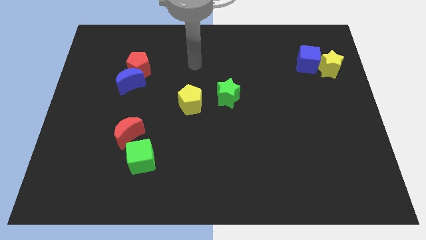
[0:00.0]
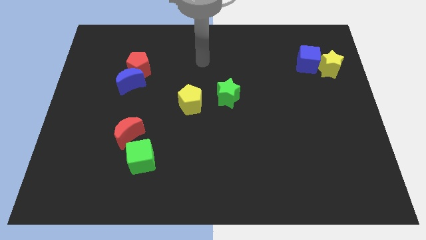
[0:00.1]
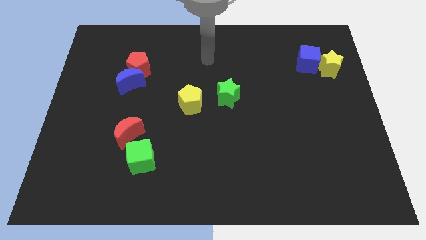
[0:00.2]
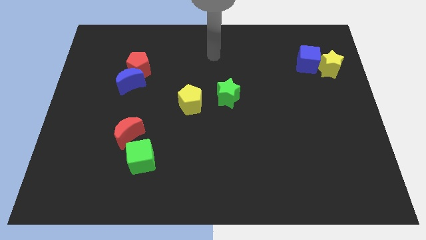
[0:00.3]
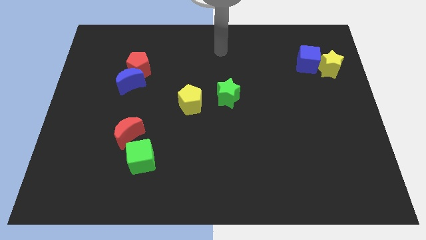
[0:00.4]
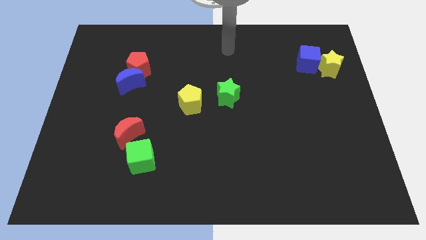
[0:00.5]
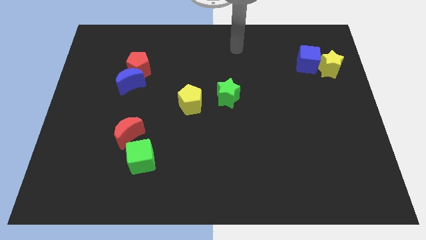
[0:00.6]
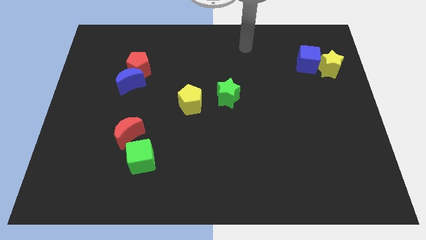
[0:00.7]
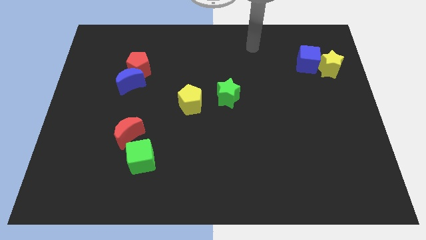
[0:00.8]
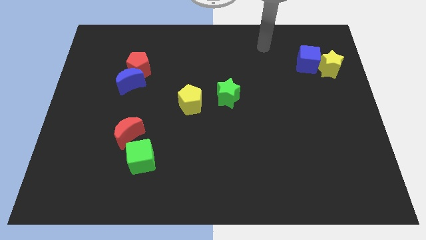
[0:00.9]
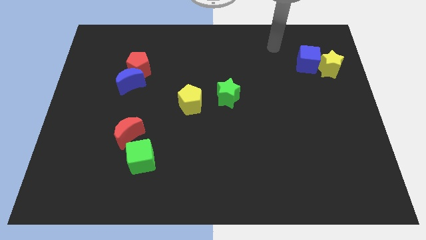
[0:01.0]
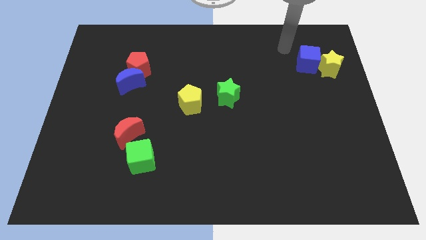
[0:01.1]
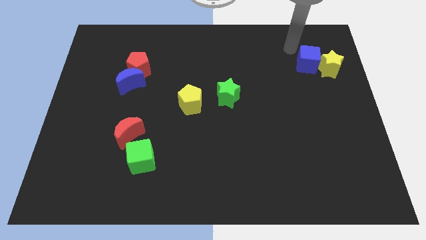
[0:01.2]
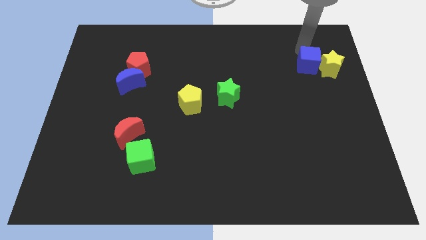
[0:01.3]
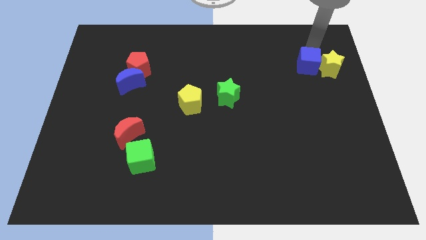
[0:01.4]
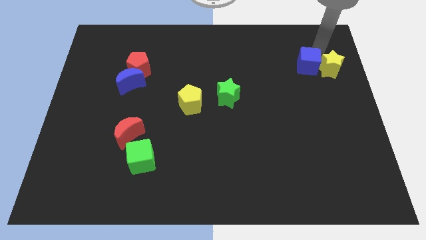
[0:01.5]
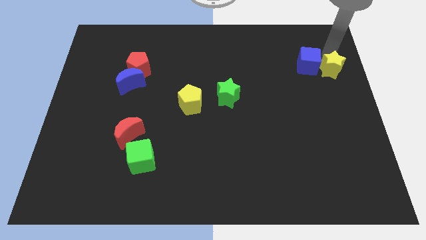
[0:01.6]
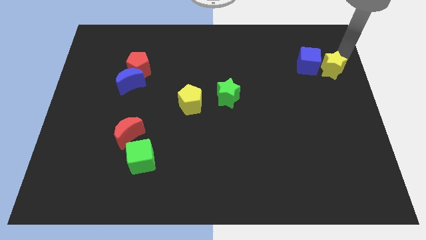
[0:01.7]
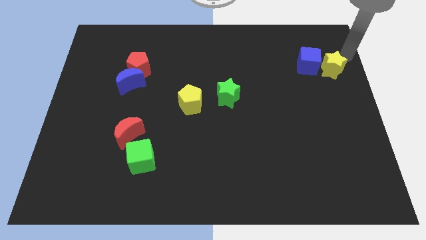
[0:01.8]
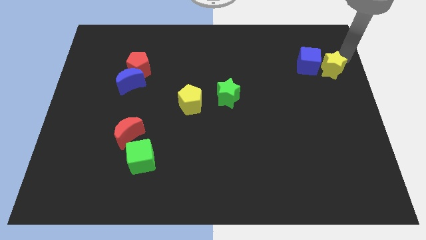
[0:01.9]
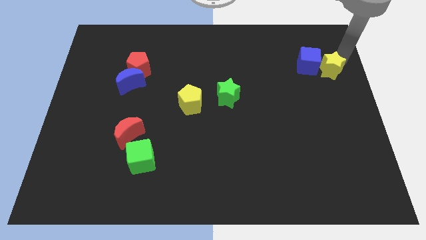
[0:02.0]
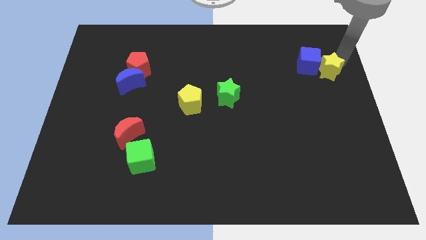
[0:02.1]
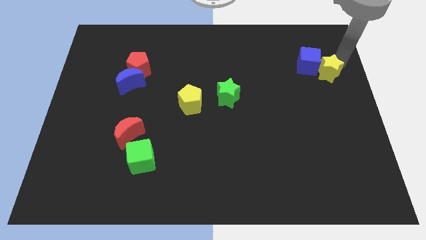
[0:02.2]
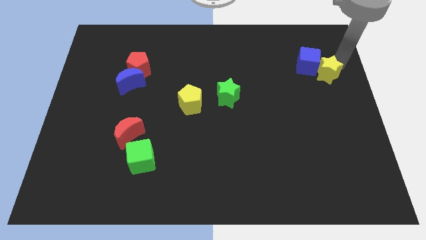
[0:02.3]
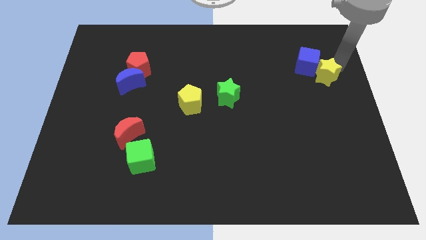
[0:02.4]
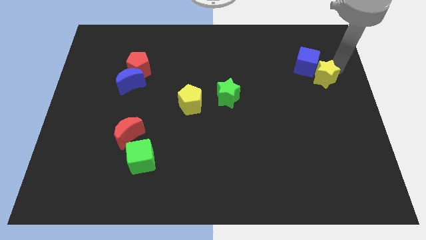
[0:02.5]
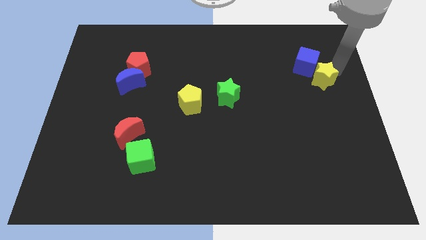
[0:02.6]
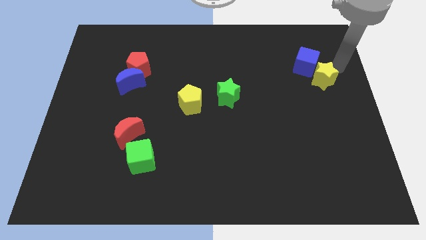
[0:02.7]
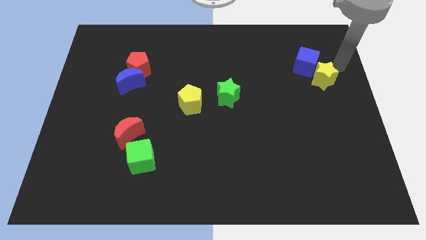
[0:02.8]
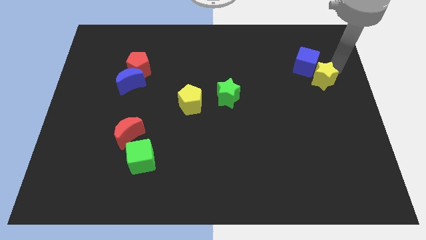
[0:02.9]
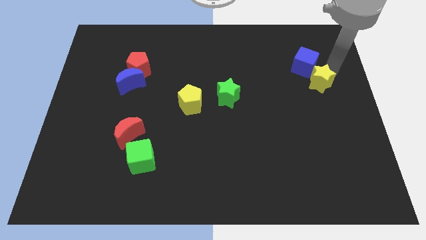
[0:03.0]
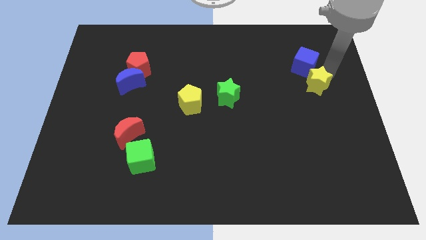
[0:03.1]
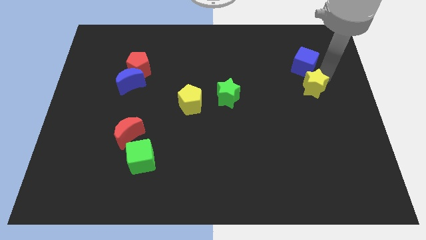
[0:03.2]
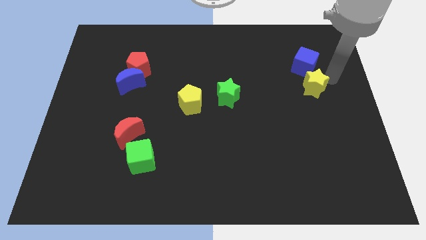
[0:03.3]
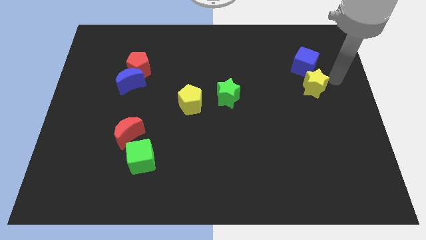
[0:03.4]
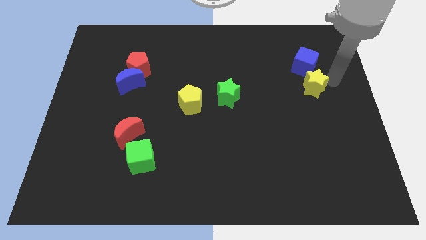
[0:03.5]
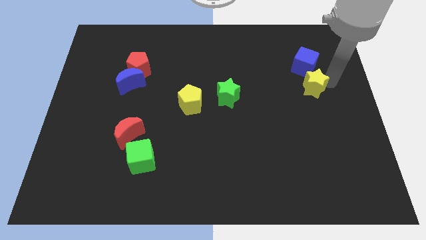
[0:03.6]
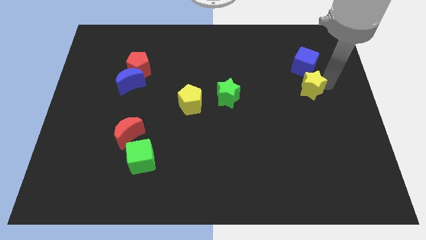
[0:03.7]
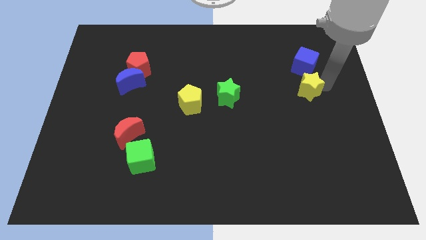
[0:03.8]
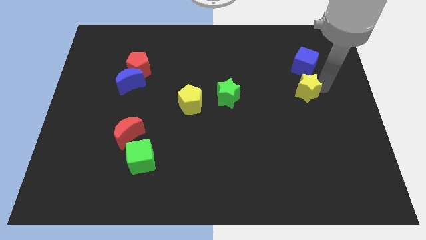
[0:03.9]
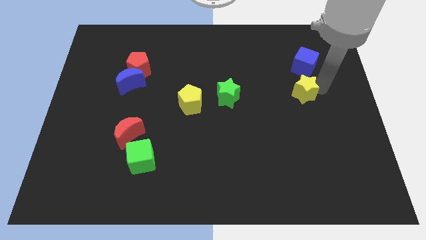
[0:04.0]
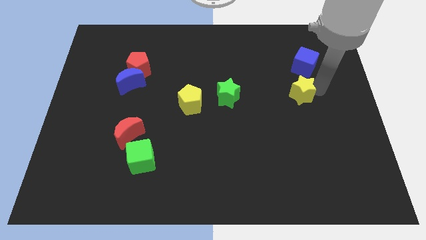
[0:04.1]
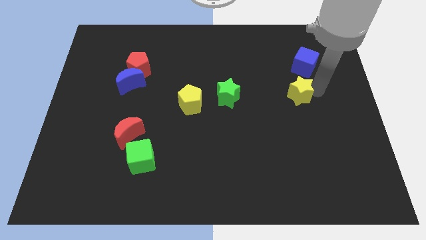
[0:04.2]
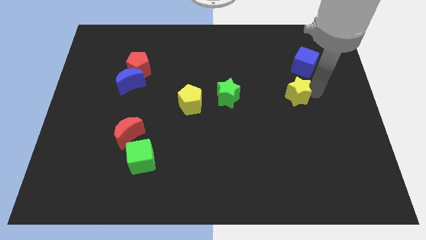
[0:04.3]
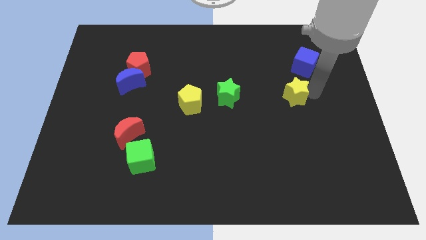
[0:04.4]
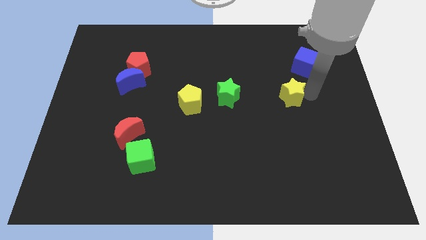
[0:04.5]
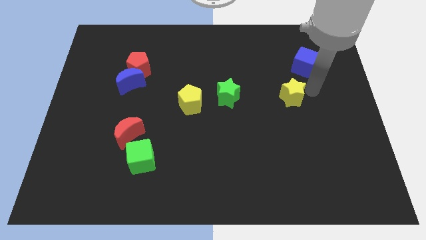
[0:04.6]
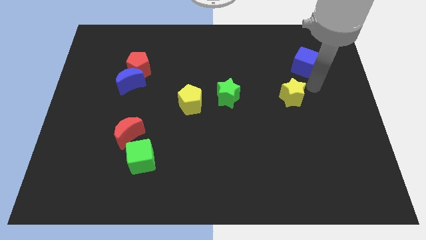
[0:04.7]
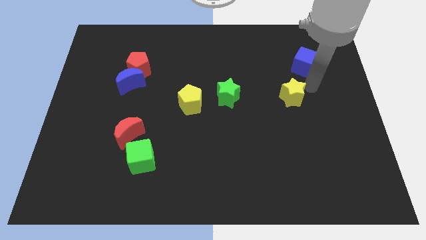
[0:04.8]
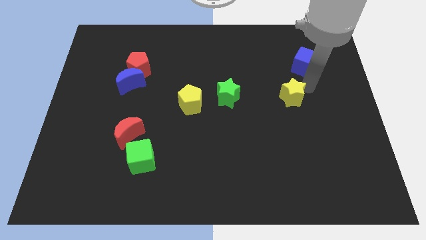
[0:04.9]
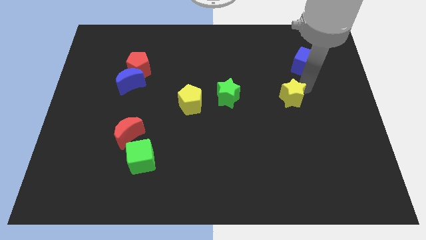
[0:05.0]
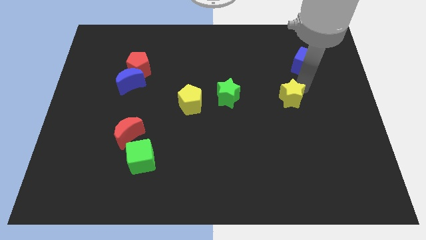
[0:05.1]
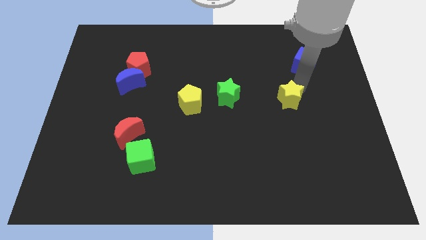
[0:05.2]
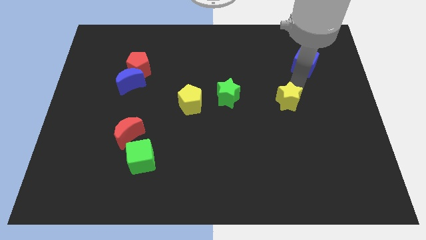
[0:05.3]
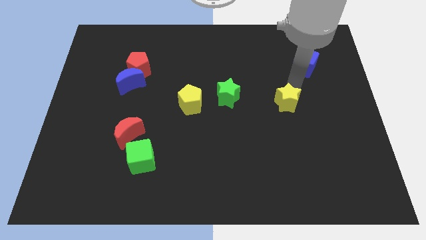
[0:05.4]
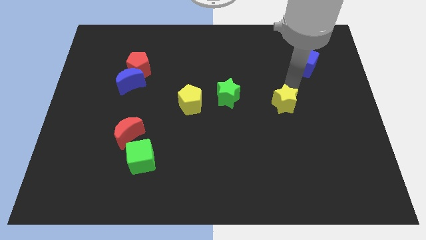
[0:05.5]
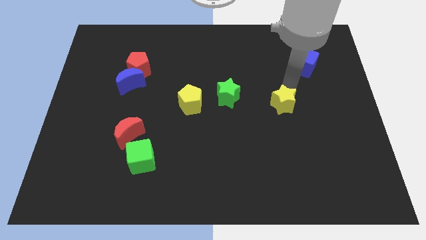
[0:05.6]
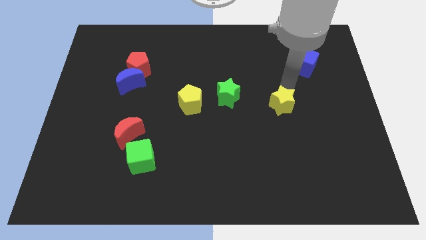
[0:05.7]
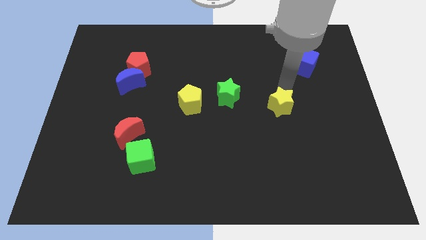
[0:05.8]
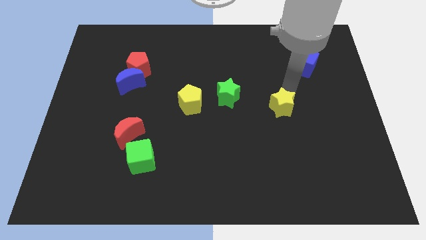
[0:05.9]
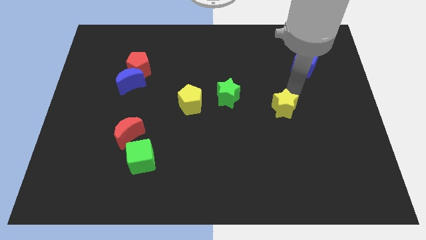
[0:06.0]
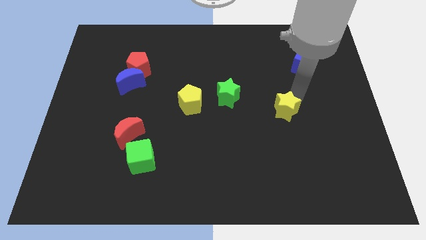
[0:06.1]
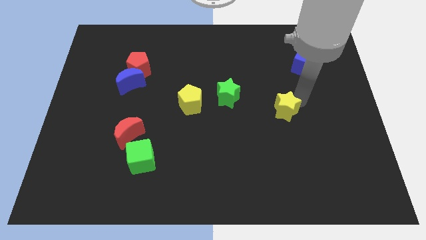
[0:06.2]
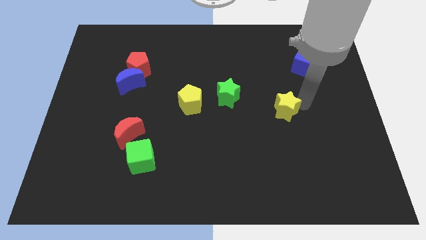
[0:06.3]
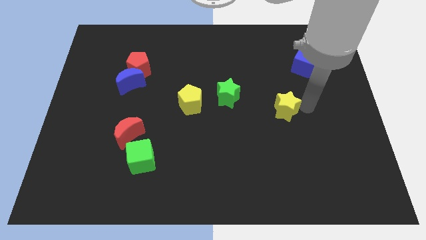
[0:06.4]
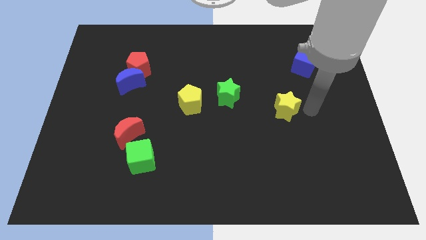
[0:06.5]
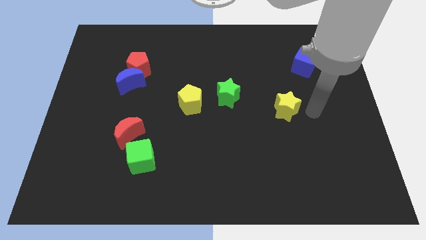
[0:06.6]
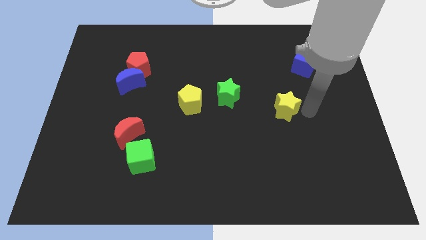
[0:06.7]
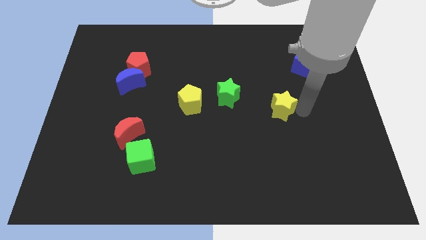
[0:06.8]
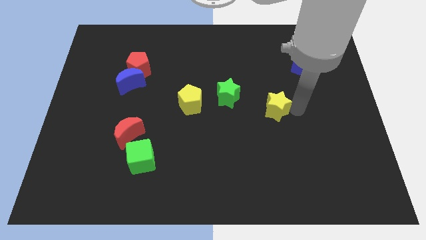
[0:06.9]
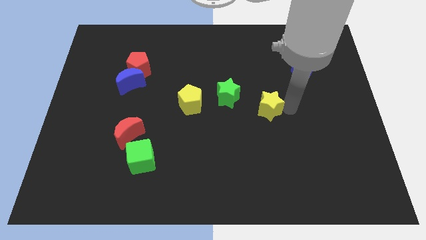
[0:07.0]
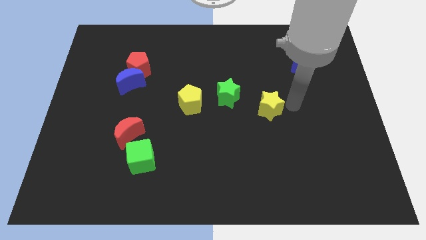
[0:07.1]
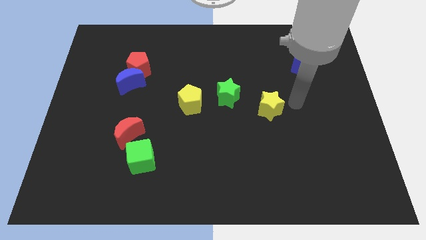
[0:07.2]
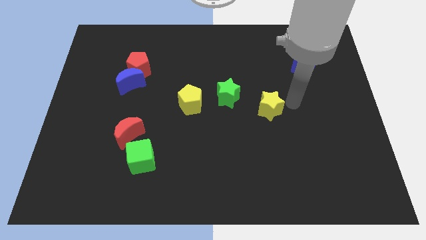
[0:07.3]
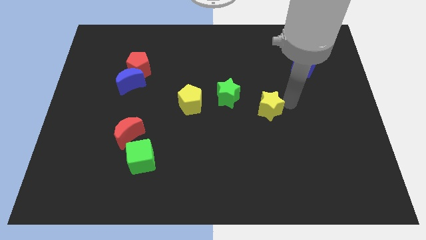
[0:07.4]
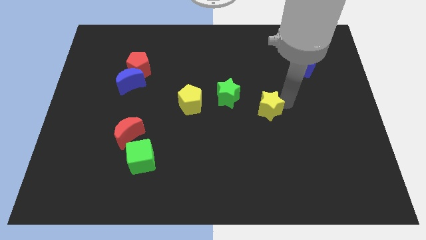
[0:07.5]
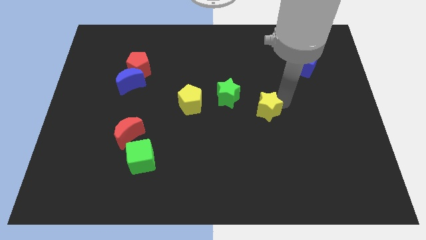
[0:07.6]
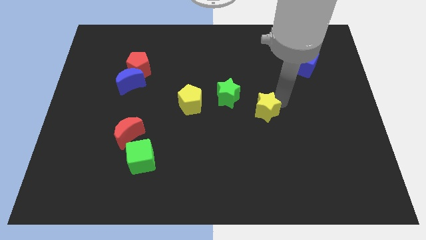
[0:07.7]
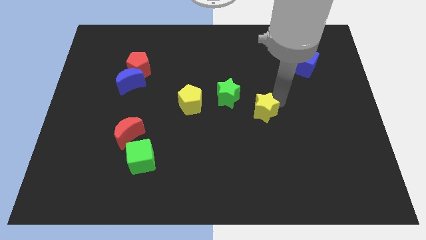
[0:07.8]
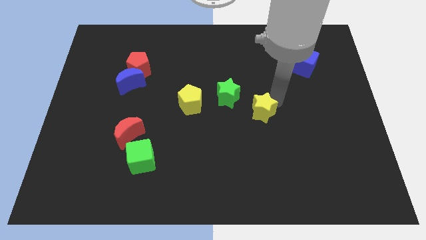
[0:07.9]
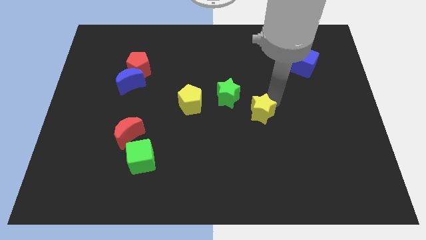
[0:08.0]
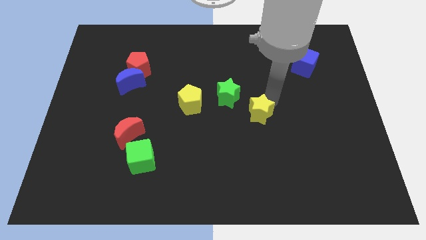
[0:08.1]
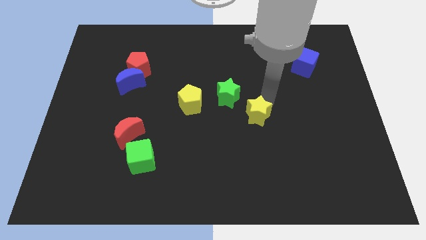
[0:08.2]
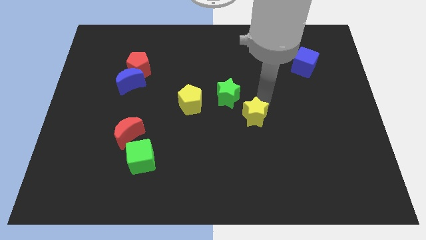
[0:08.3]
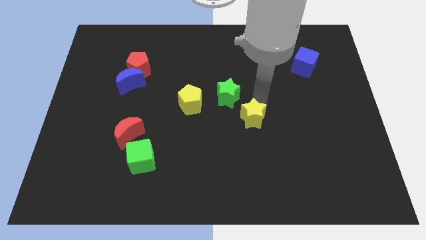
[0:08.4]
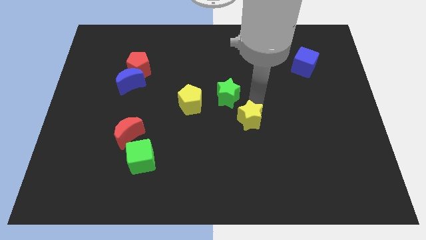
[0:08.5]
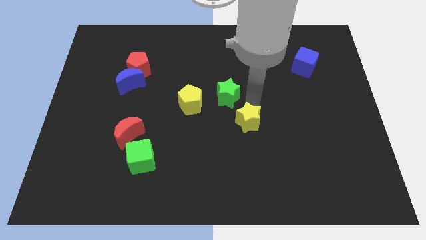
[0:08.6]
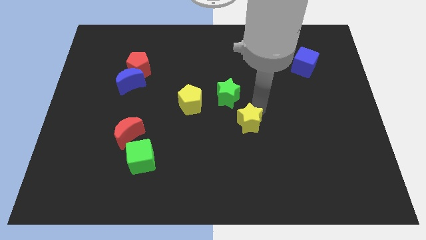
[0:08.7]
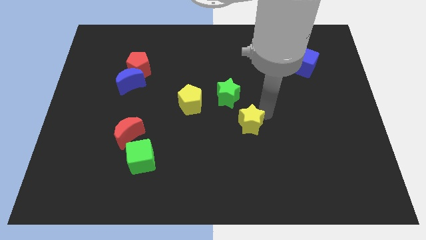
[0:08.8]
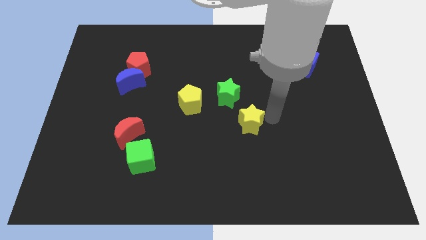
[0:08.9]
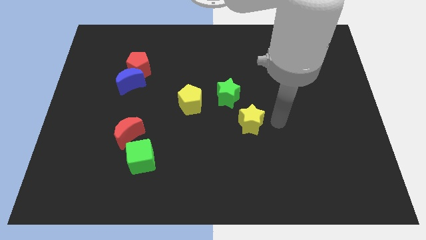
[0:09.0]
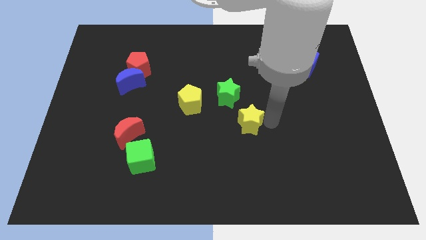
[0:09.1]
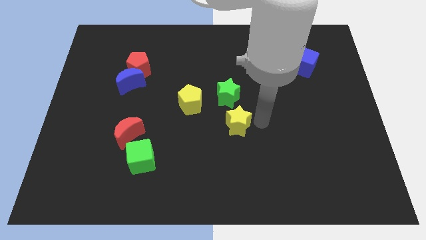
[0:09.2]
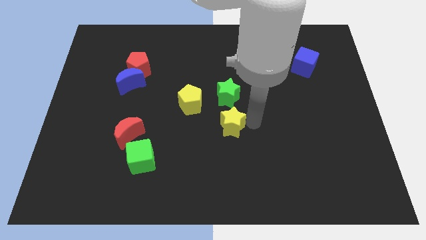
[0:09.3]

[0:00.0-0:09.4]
move the yellow star to the bottom right of the yellow pentagon
